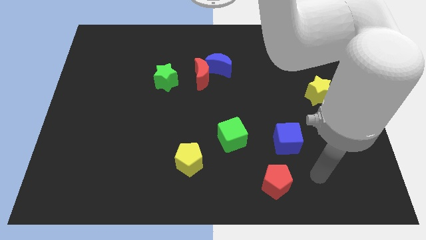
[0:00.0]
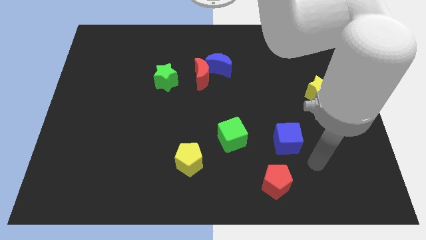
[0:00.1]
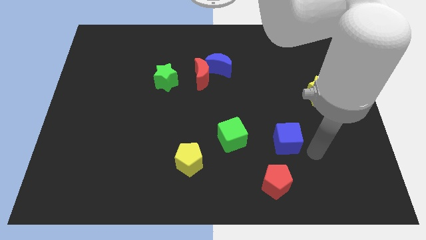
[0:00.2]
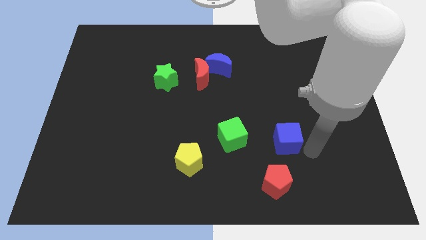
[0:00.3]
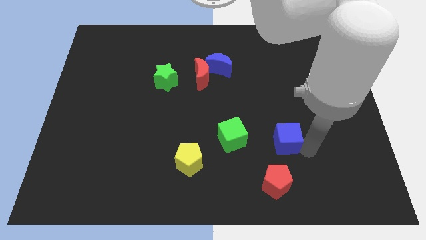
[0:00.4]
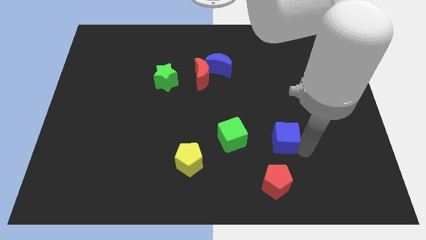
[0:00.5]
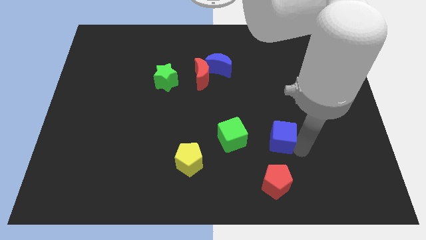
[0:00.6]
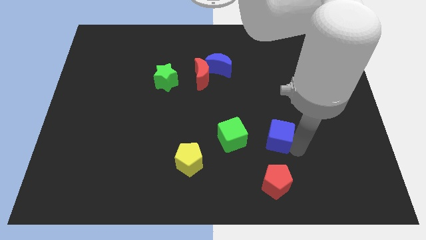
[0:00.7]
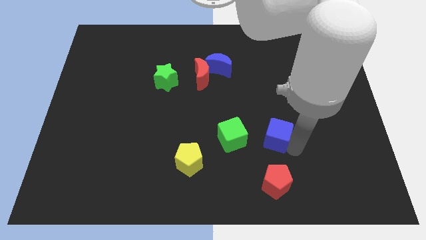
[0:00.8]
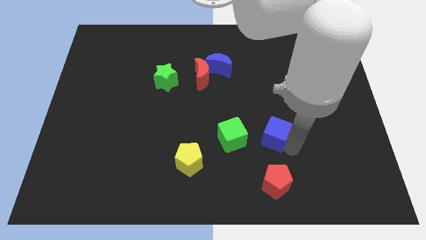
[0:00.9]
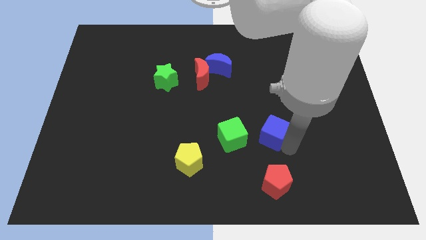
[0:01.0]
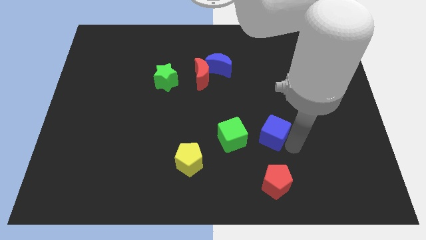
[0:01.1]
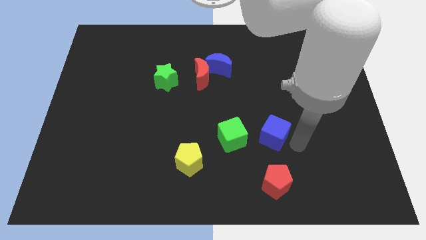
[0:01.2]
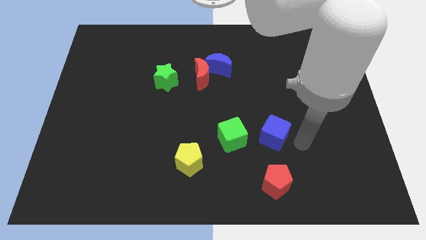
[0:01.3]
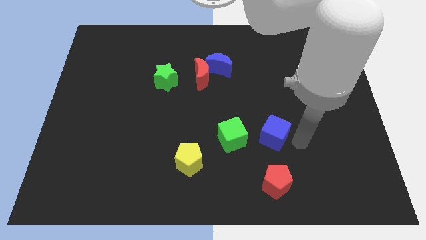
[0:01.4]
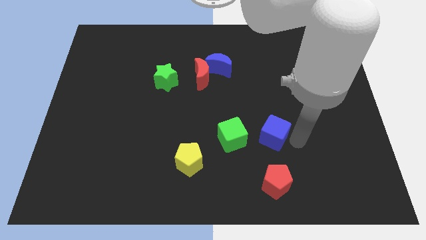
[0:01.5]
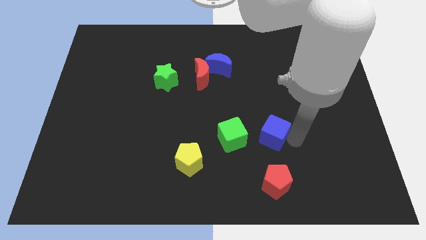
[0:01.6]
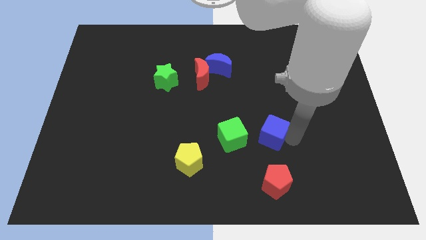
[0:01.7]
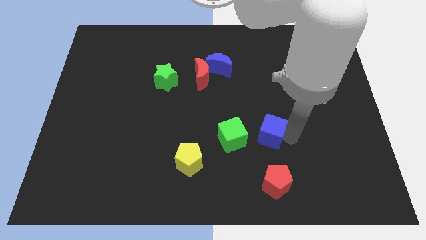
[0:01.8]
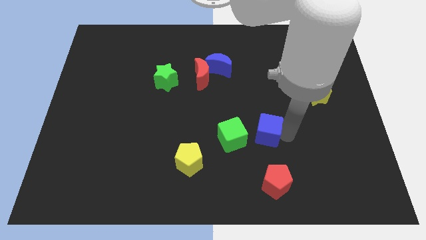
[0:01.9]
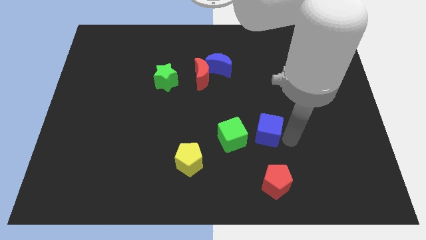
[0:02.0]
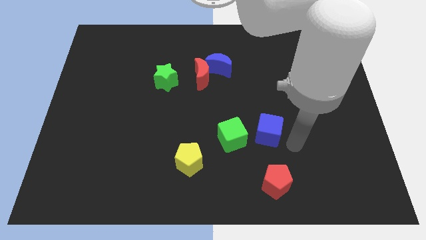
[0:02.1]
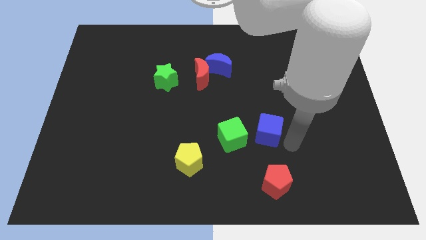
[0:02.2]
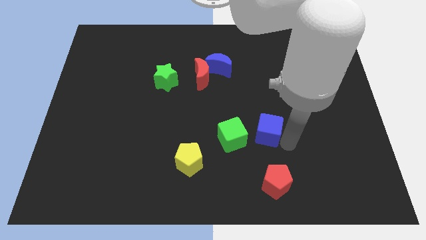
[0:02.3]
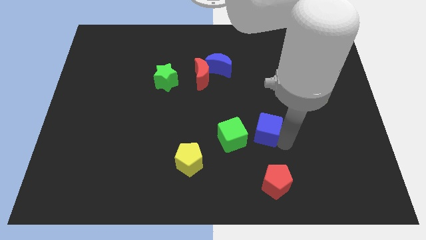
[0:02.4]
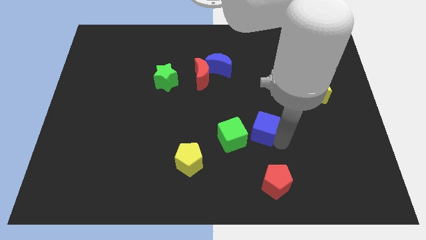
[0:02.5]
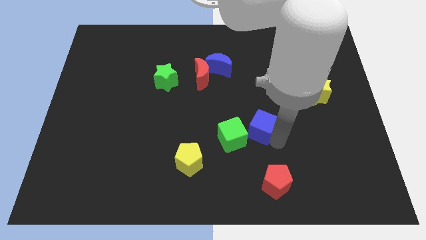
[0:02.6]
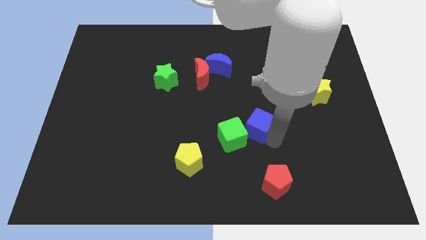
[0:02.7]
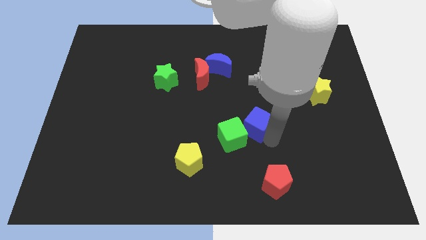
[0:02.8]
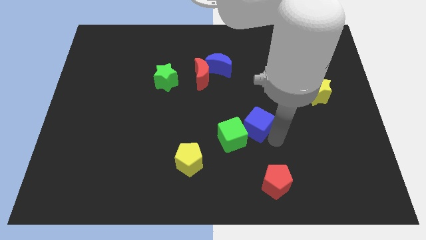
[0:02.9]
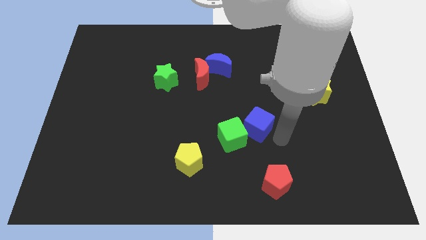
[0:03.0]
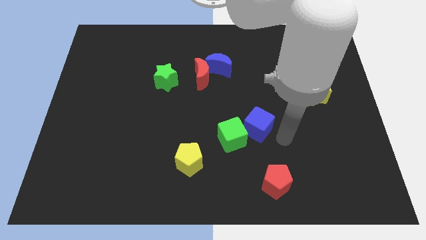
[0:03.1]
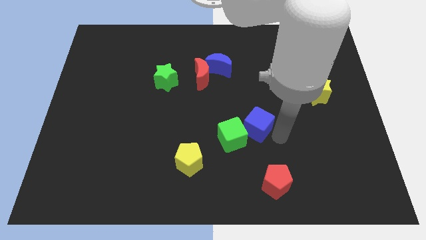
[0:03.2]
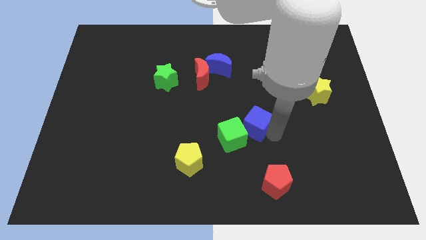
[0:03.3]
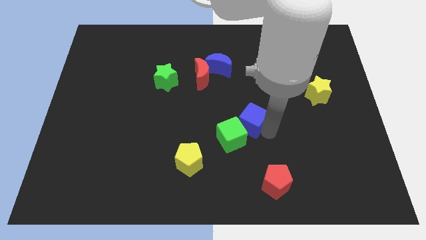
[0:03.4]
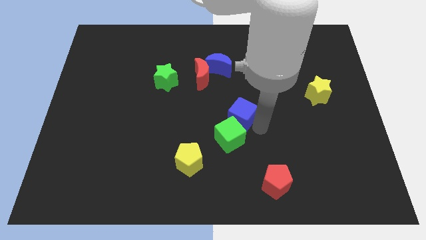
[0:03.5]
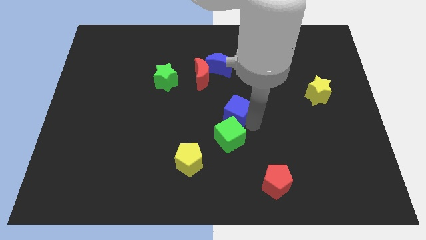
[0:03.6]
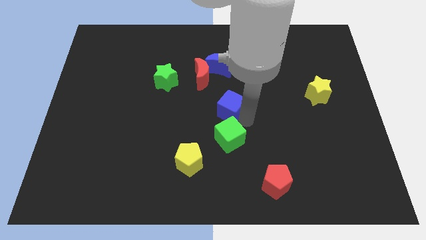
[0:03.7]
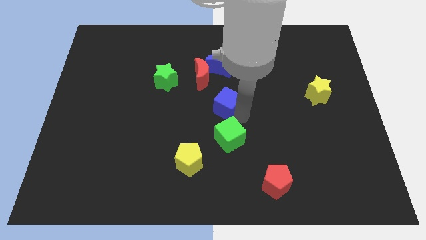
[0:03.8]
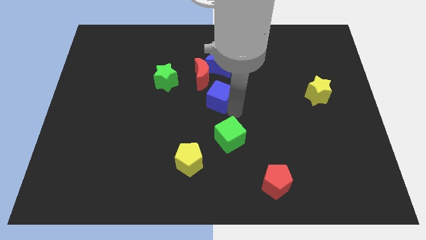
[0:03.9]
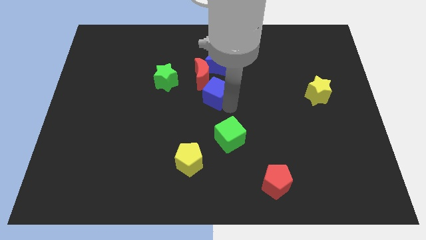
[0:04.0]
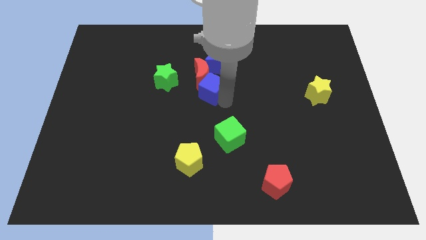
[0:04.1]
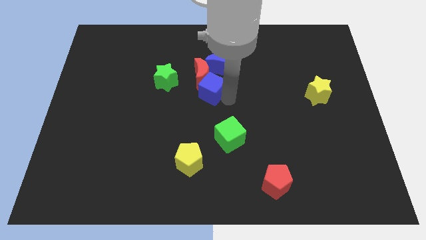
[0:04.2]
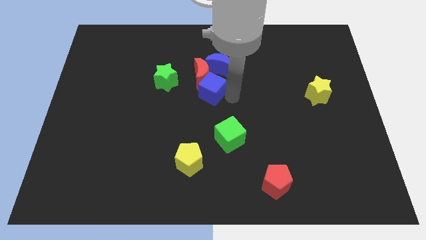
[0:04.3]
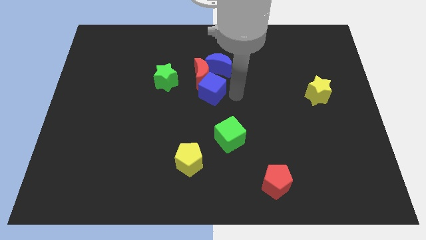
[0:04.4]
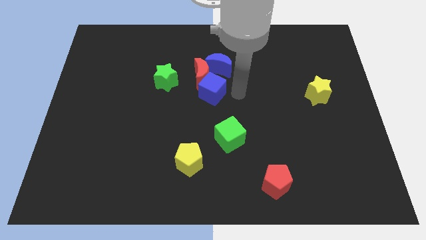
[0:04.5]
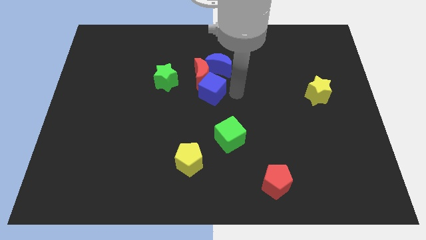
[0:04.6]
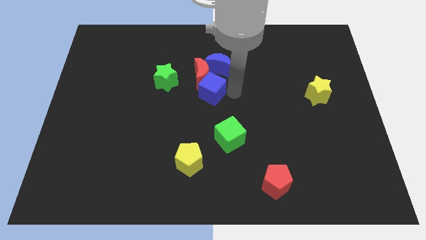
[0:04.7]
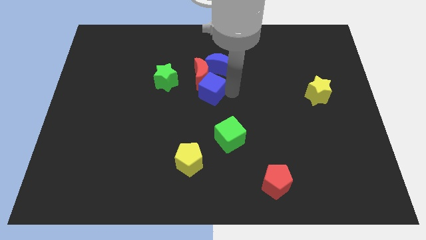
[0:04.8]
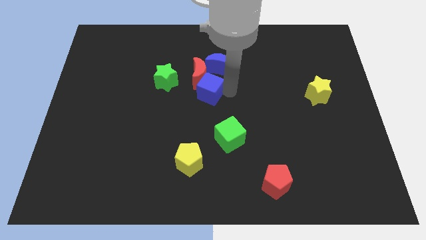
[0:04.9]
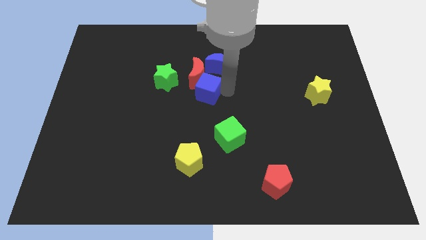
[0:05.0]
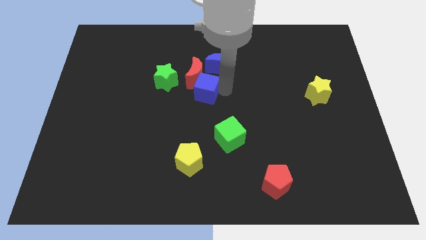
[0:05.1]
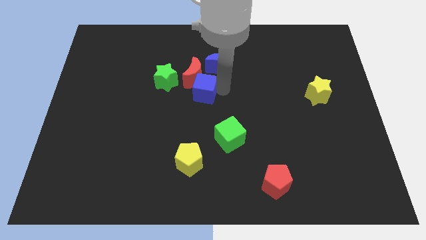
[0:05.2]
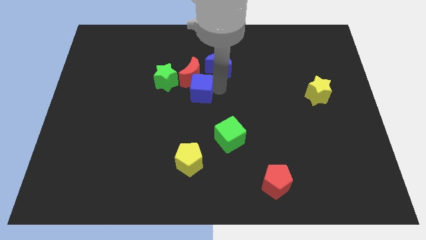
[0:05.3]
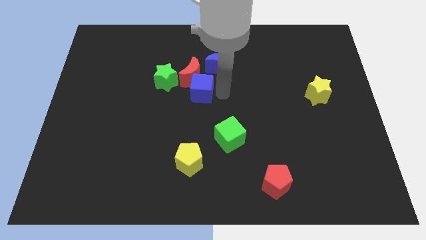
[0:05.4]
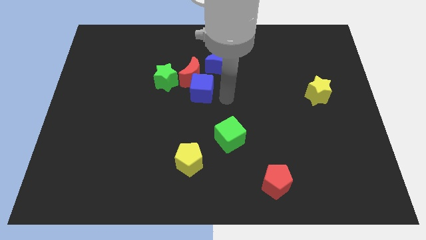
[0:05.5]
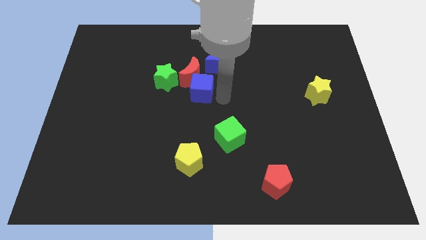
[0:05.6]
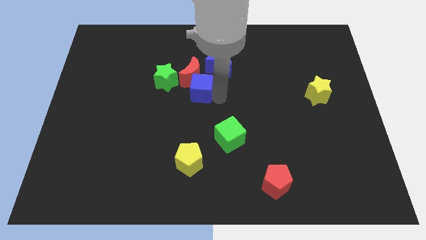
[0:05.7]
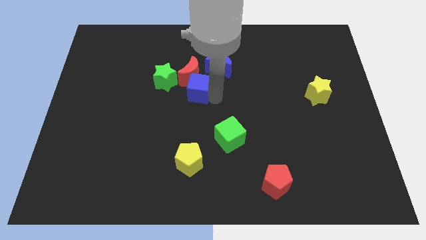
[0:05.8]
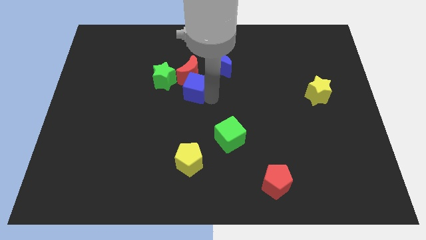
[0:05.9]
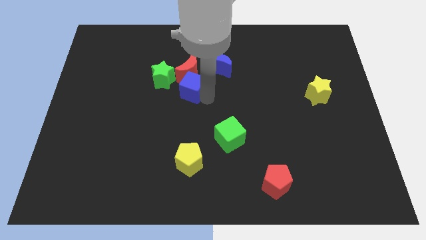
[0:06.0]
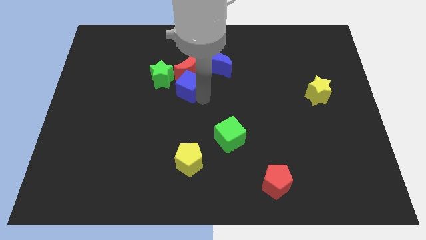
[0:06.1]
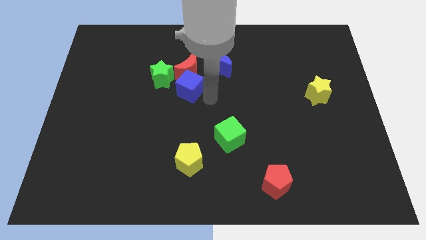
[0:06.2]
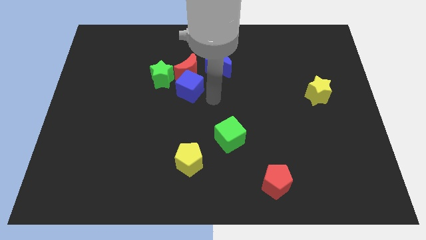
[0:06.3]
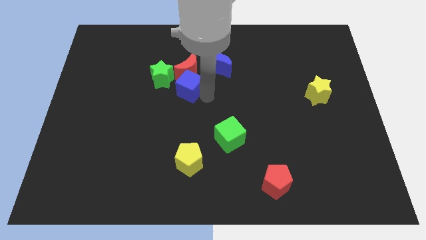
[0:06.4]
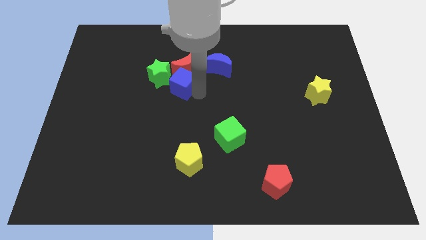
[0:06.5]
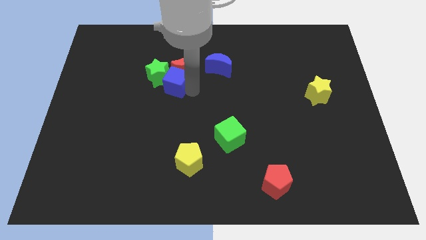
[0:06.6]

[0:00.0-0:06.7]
push the blue cube close to the green star
